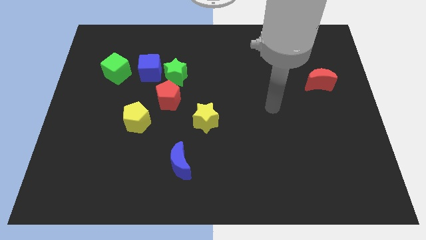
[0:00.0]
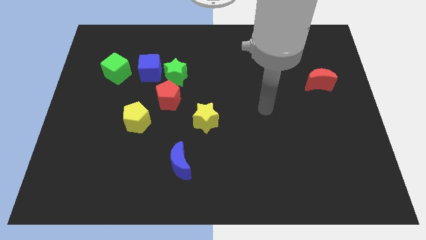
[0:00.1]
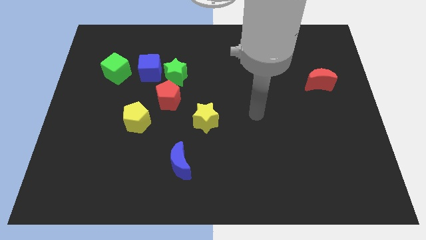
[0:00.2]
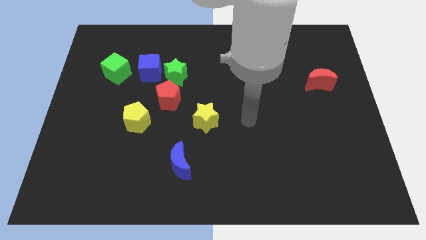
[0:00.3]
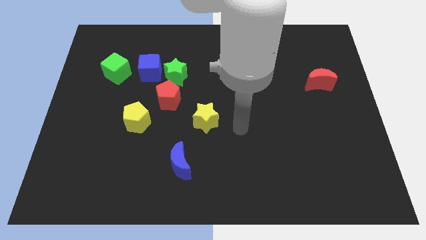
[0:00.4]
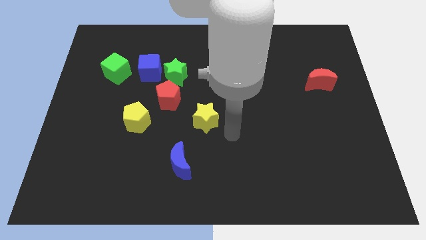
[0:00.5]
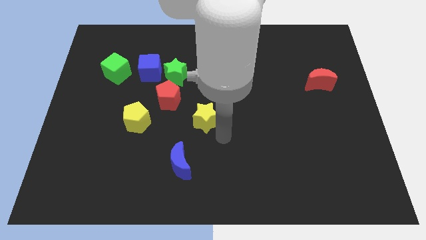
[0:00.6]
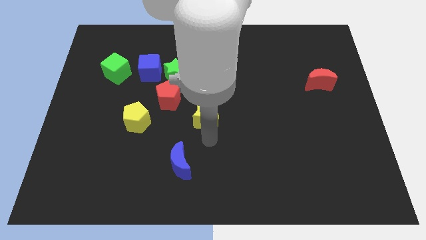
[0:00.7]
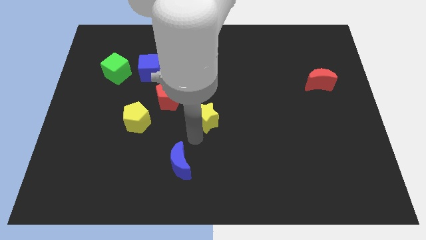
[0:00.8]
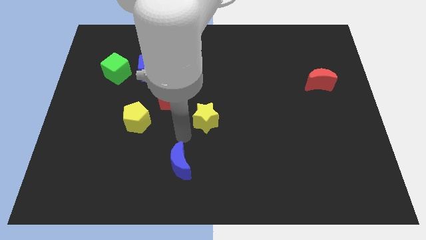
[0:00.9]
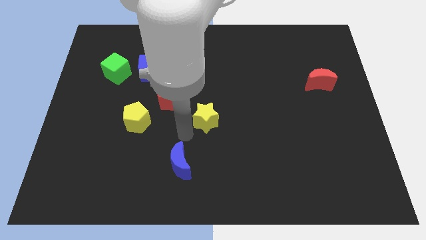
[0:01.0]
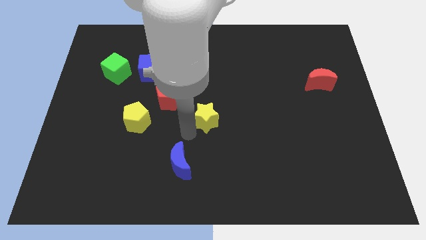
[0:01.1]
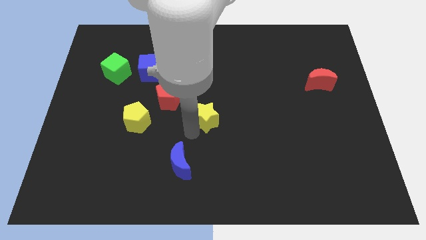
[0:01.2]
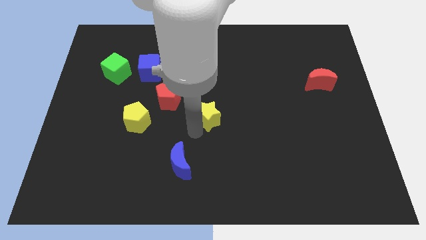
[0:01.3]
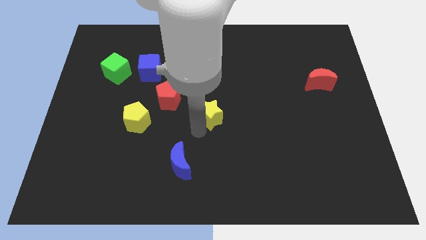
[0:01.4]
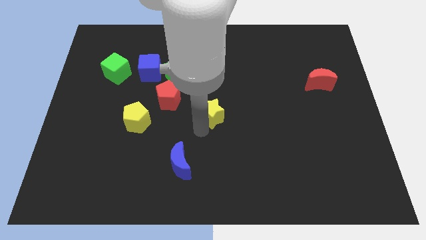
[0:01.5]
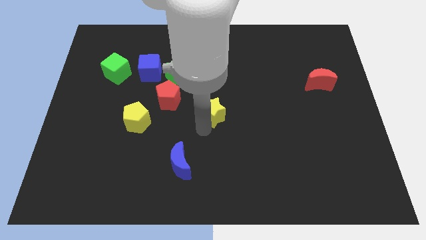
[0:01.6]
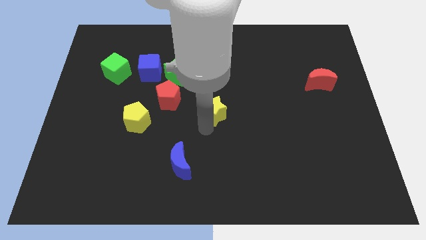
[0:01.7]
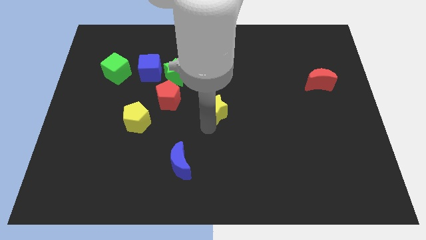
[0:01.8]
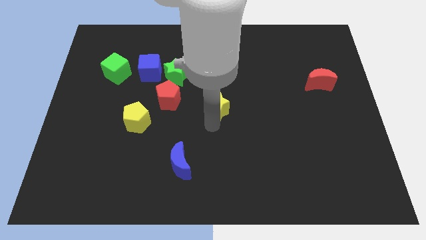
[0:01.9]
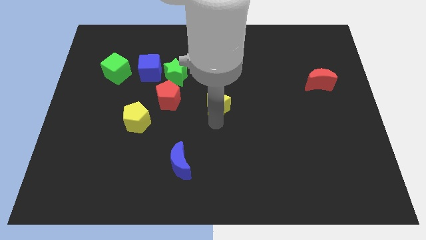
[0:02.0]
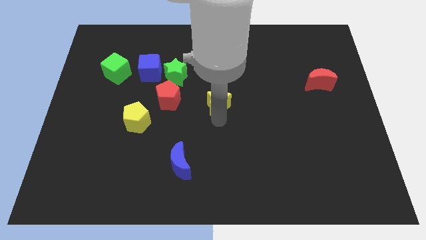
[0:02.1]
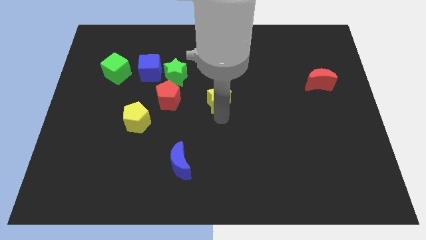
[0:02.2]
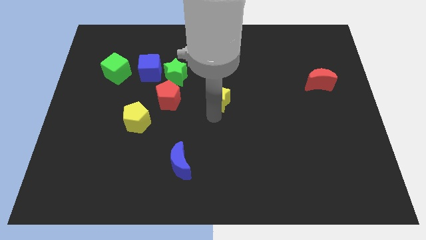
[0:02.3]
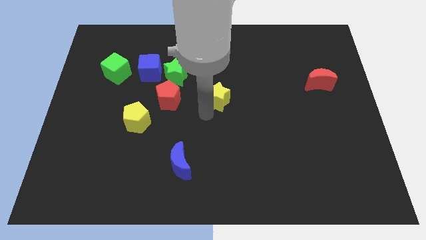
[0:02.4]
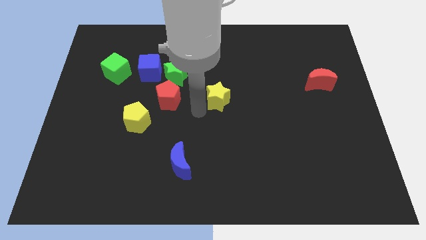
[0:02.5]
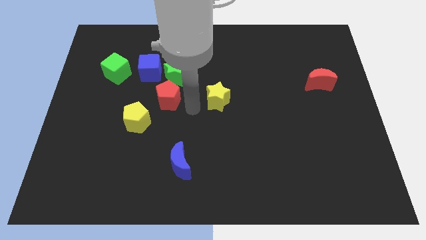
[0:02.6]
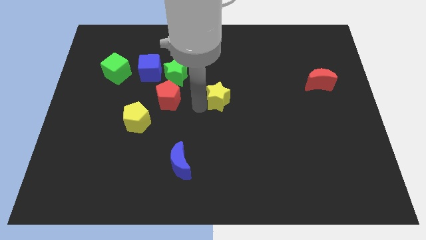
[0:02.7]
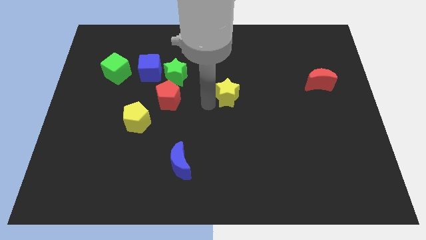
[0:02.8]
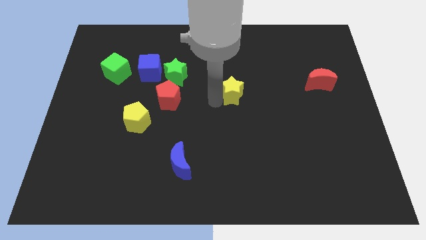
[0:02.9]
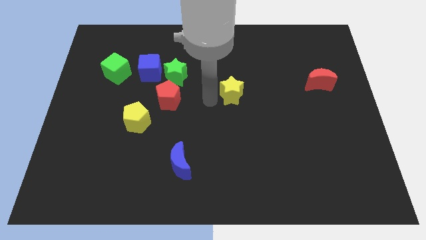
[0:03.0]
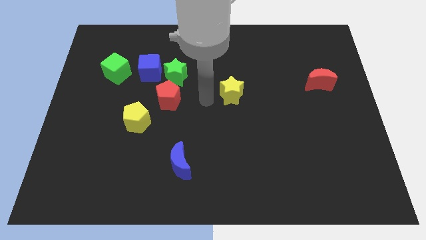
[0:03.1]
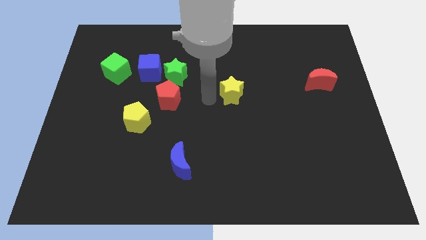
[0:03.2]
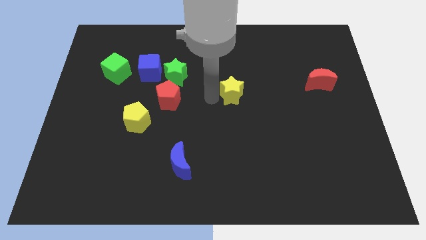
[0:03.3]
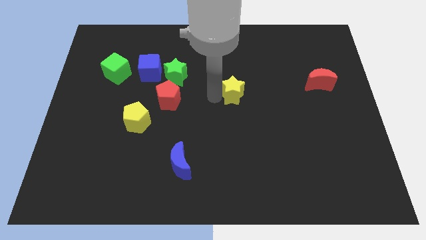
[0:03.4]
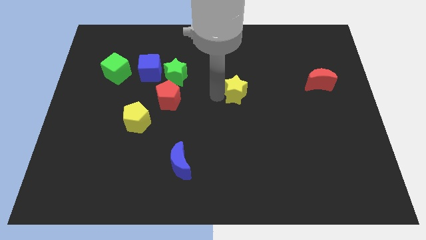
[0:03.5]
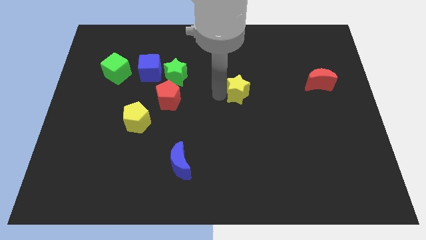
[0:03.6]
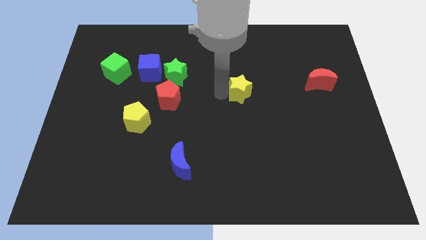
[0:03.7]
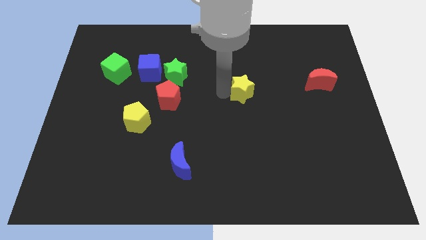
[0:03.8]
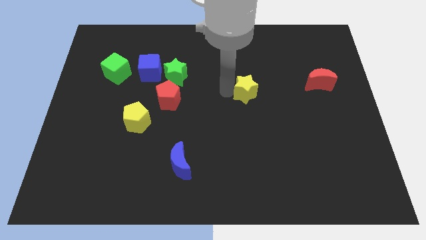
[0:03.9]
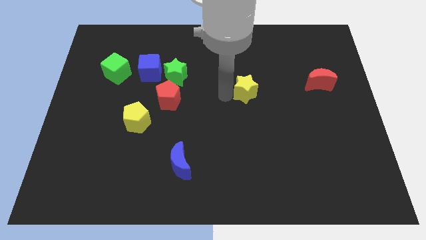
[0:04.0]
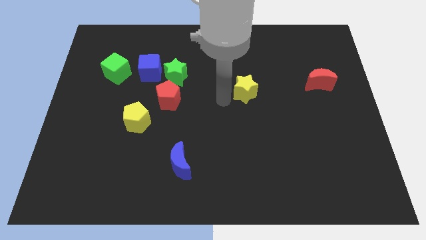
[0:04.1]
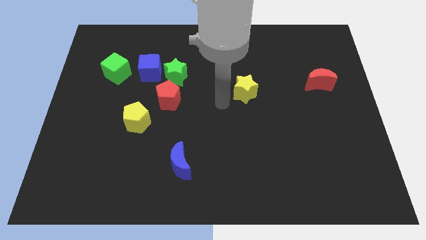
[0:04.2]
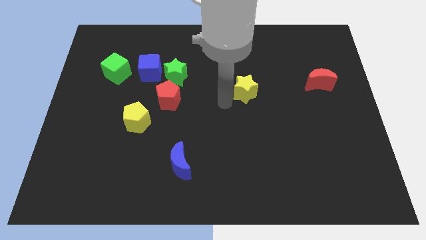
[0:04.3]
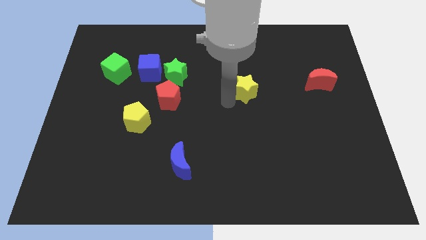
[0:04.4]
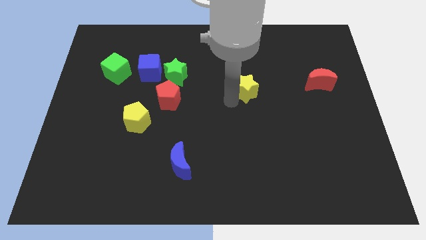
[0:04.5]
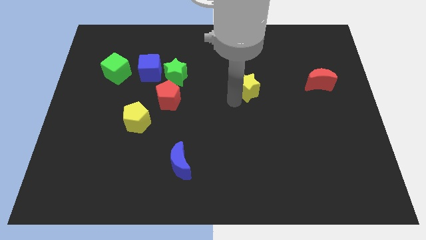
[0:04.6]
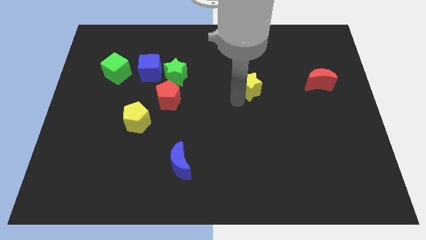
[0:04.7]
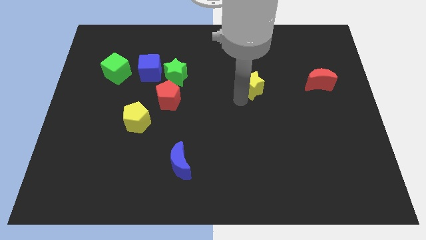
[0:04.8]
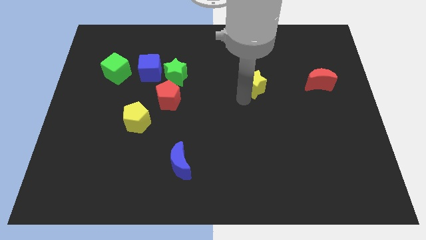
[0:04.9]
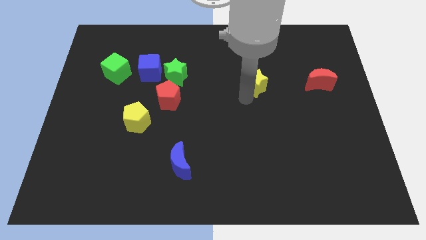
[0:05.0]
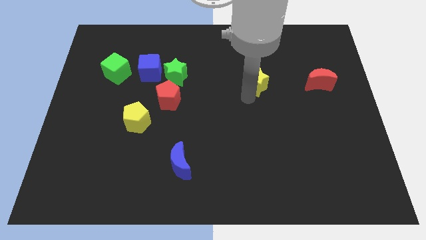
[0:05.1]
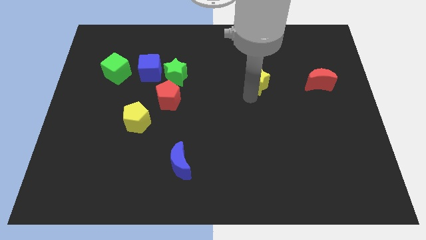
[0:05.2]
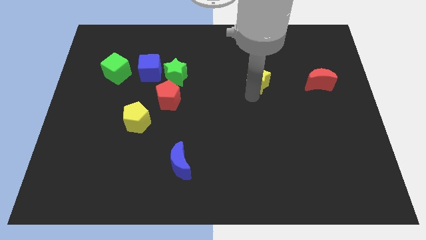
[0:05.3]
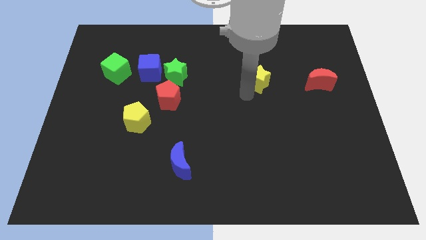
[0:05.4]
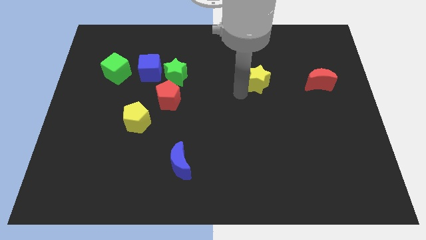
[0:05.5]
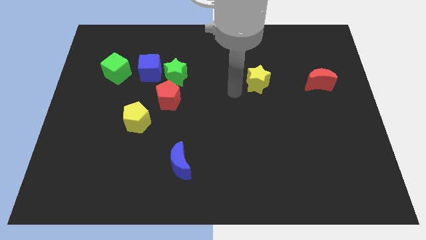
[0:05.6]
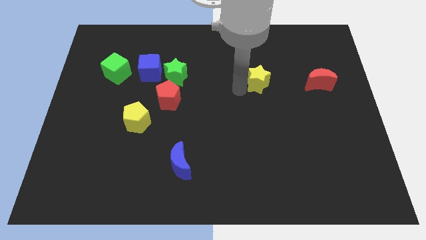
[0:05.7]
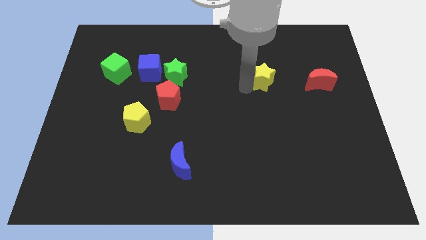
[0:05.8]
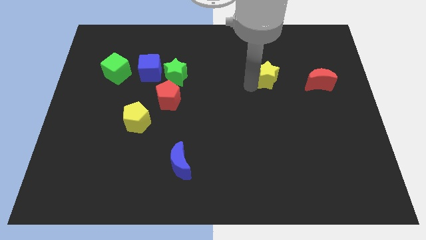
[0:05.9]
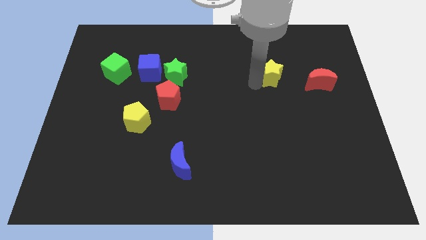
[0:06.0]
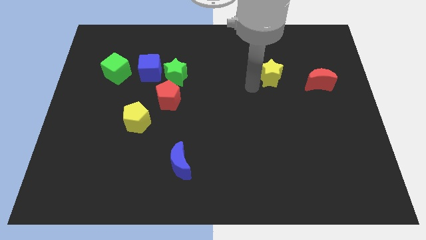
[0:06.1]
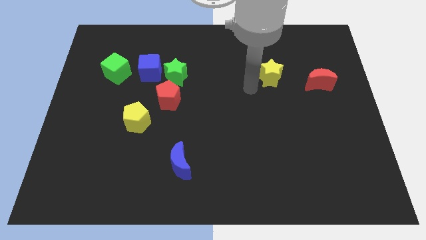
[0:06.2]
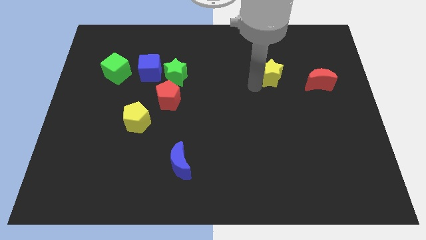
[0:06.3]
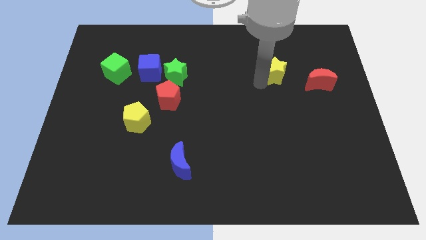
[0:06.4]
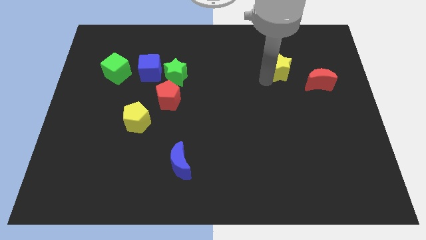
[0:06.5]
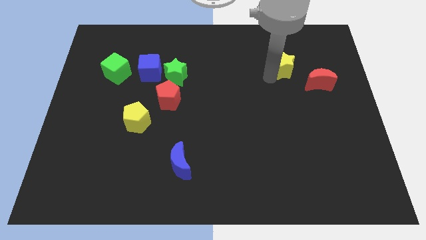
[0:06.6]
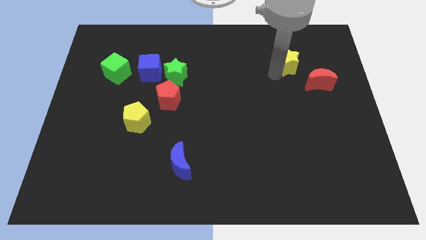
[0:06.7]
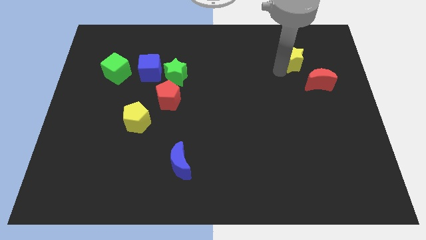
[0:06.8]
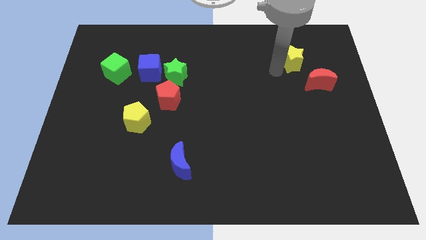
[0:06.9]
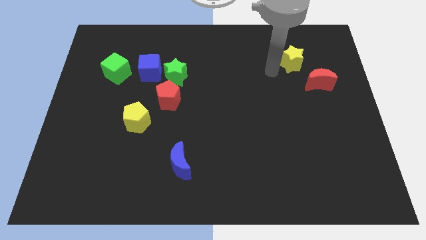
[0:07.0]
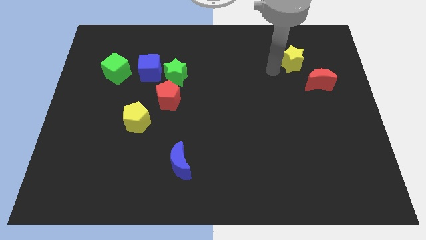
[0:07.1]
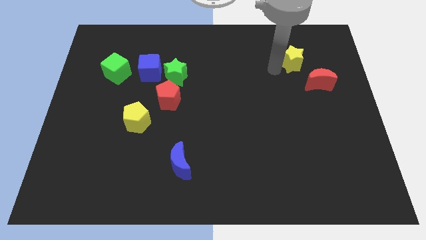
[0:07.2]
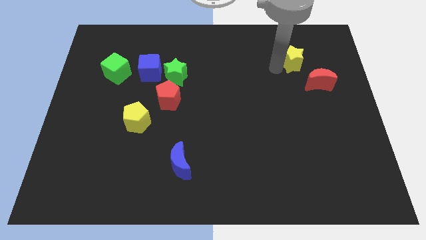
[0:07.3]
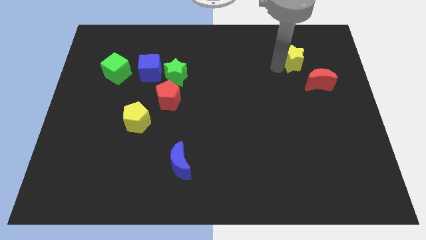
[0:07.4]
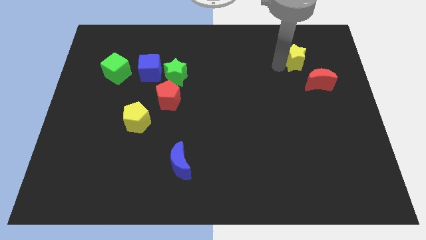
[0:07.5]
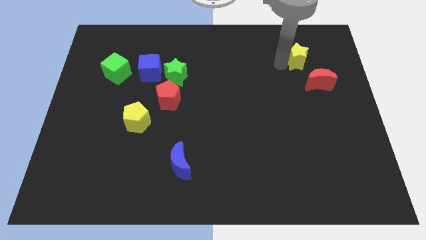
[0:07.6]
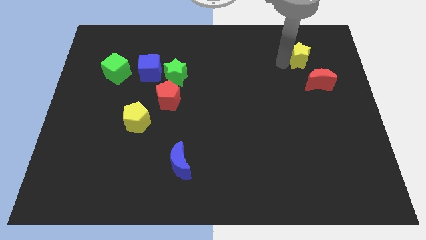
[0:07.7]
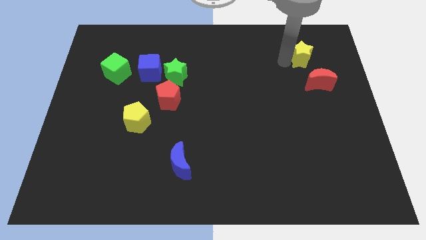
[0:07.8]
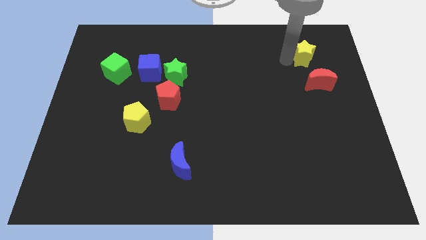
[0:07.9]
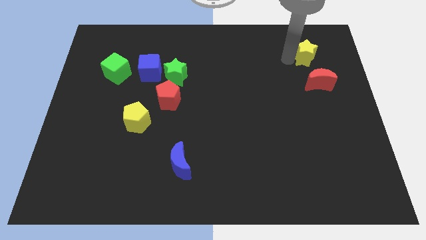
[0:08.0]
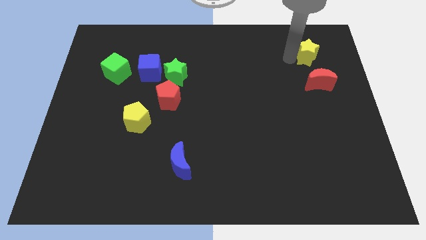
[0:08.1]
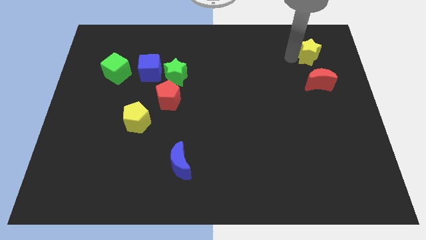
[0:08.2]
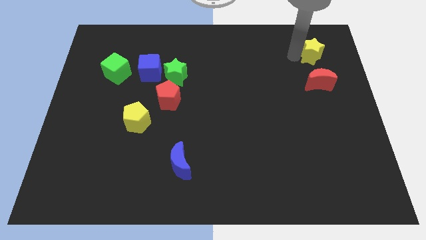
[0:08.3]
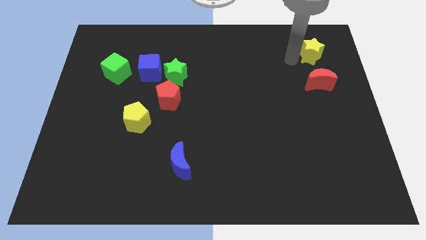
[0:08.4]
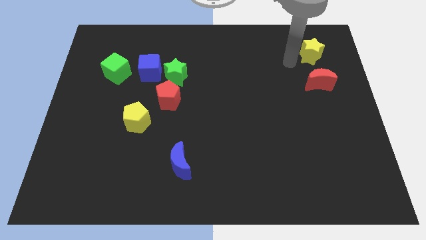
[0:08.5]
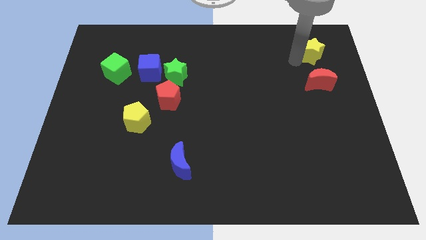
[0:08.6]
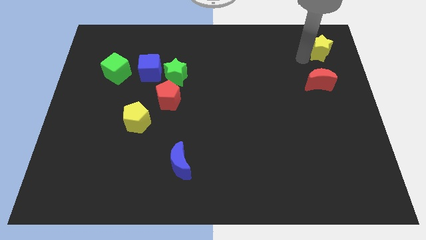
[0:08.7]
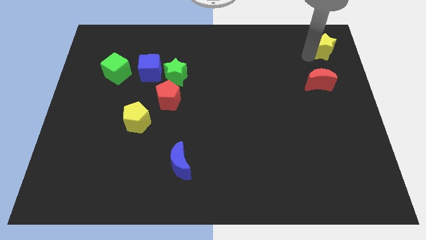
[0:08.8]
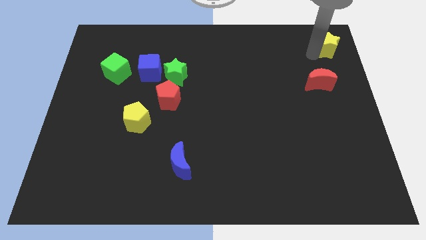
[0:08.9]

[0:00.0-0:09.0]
push the yellow star to the upper right corner
